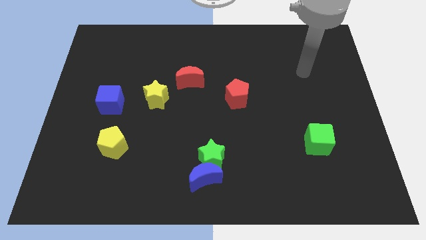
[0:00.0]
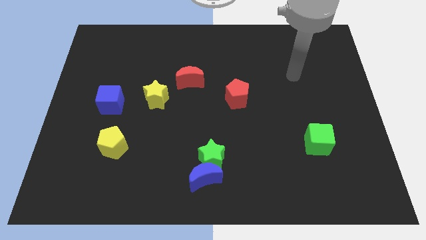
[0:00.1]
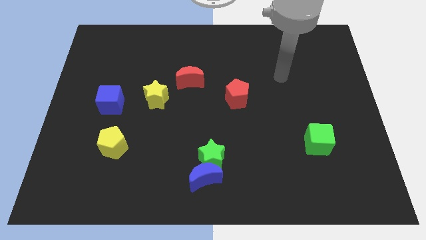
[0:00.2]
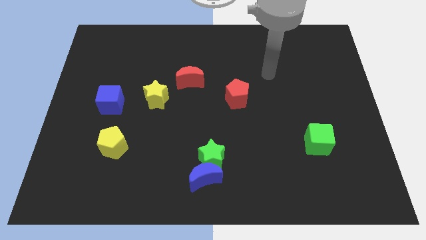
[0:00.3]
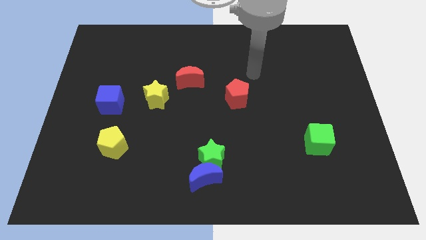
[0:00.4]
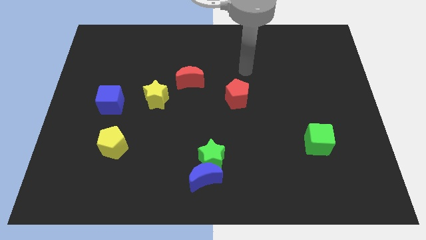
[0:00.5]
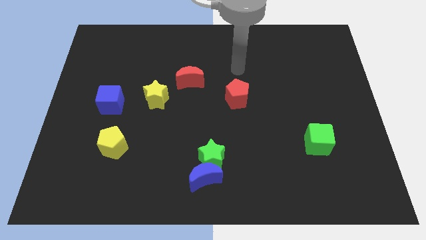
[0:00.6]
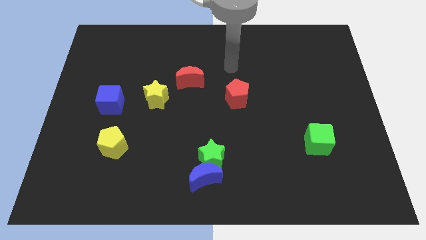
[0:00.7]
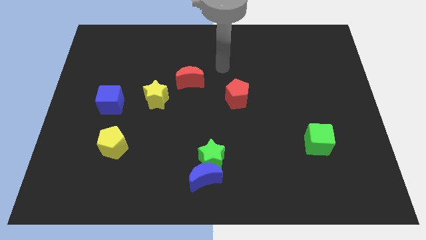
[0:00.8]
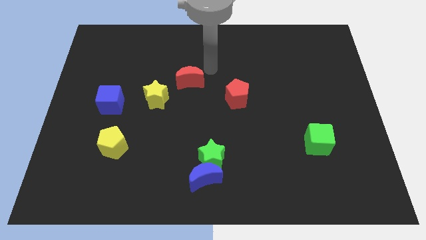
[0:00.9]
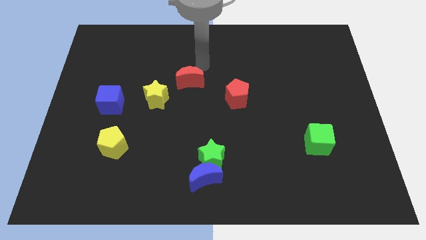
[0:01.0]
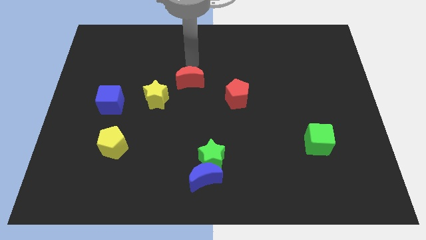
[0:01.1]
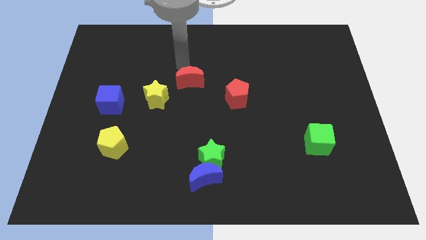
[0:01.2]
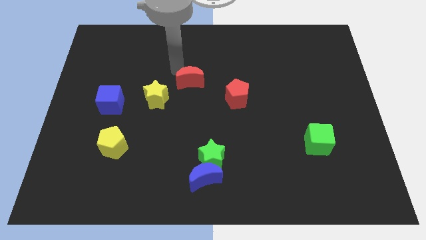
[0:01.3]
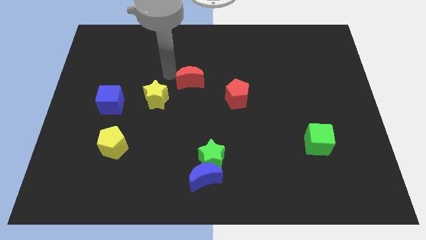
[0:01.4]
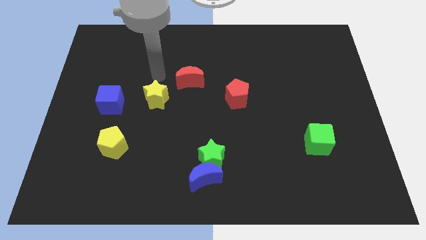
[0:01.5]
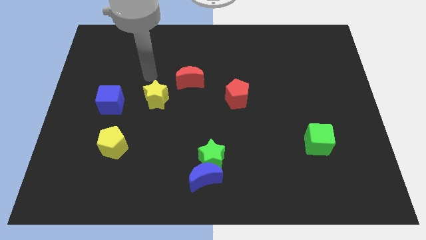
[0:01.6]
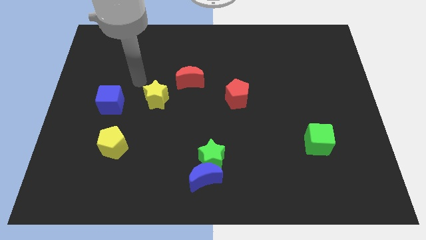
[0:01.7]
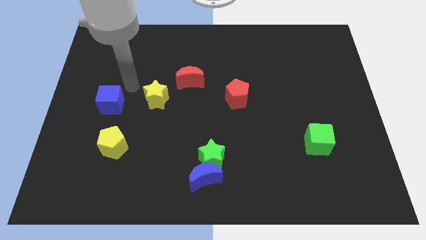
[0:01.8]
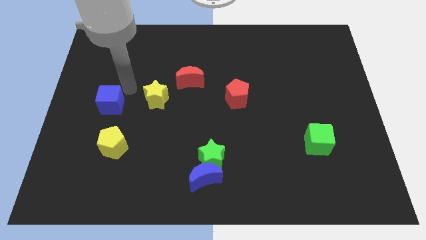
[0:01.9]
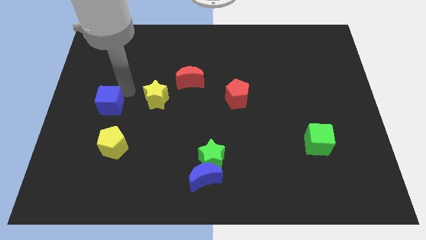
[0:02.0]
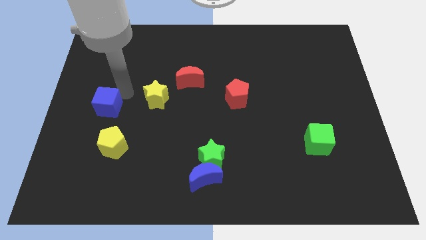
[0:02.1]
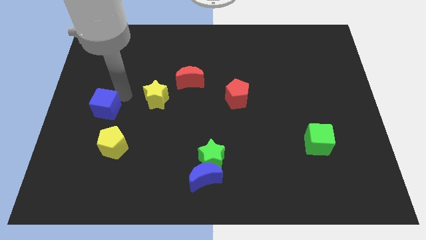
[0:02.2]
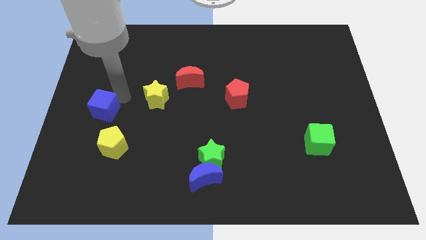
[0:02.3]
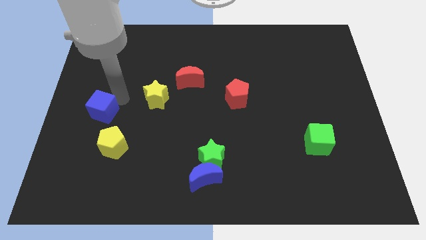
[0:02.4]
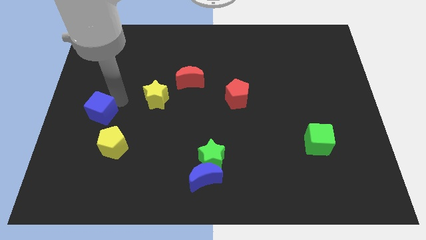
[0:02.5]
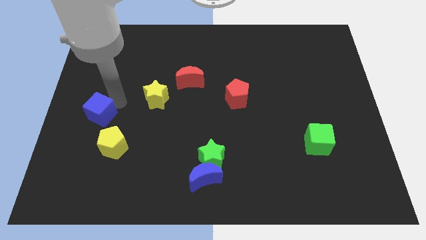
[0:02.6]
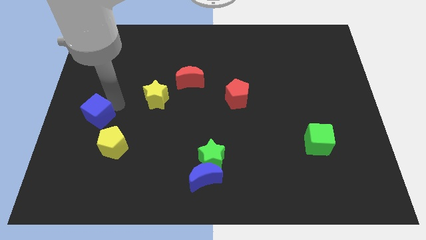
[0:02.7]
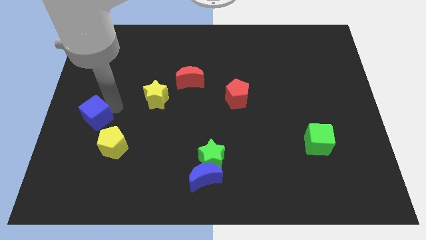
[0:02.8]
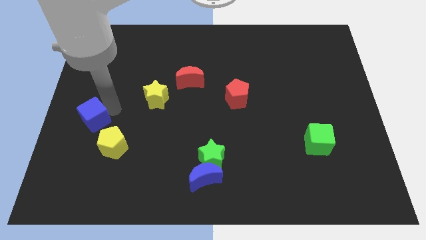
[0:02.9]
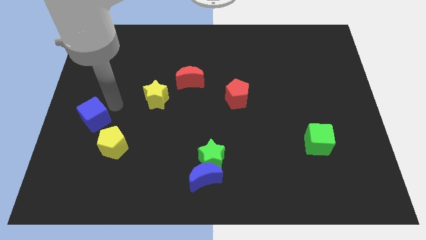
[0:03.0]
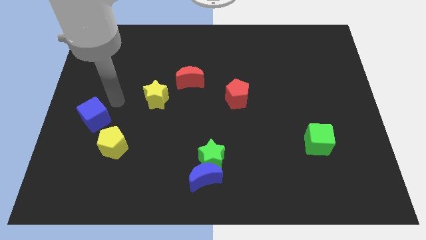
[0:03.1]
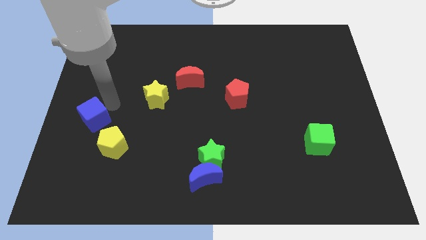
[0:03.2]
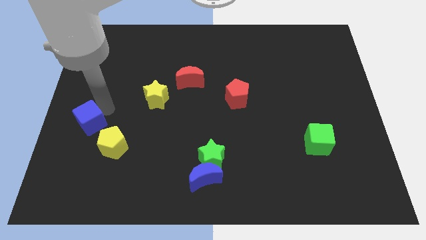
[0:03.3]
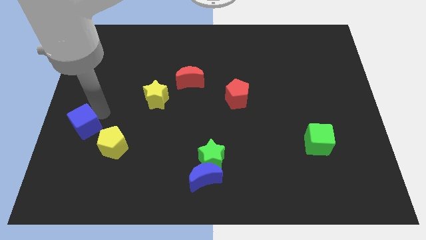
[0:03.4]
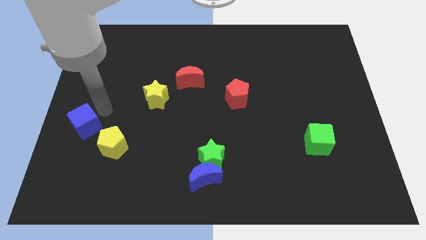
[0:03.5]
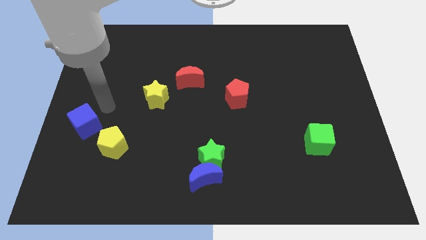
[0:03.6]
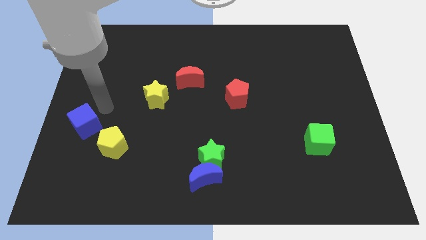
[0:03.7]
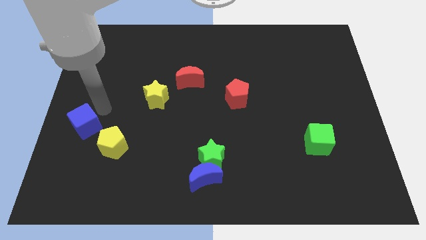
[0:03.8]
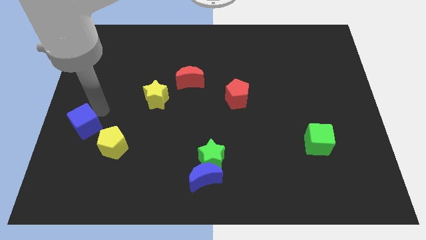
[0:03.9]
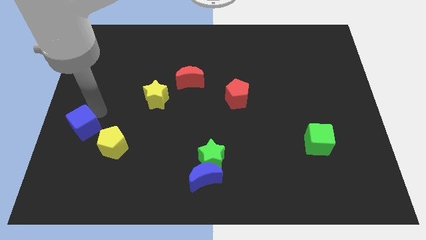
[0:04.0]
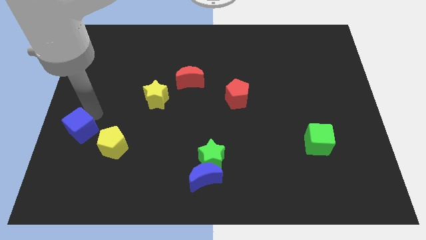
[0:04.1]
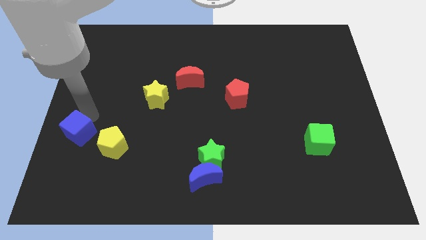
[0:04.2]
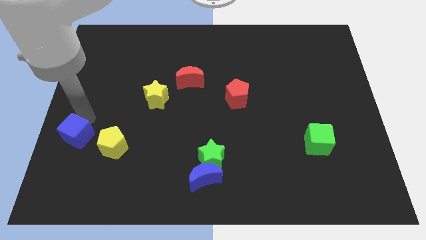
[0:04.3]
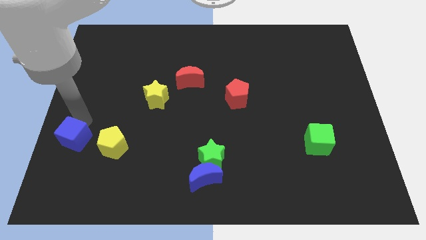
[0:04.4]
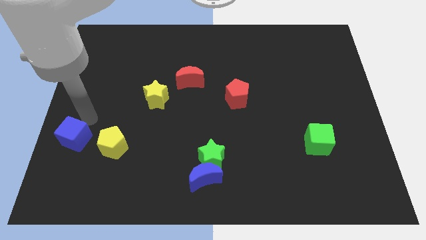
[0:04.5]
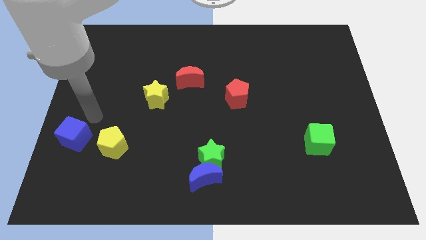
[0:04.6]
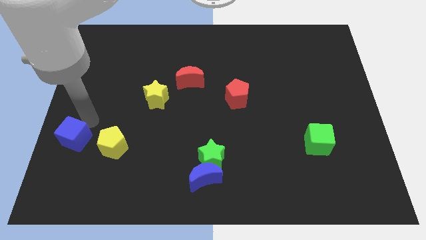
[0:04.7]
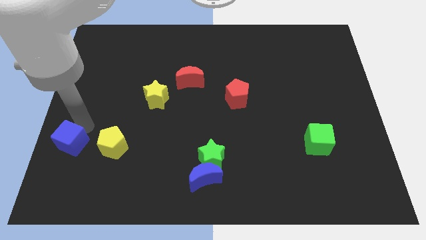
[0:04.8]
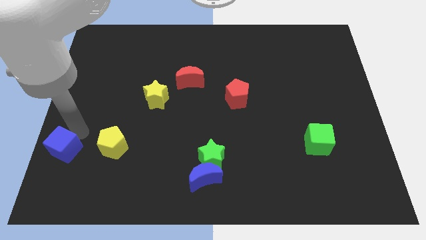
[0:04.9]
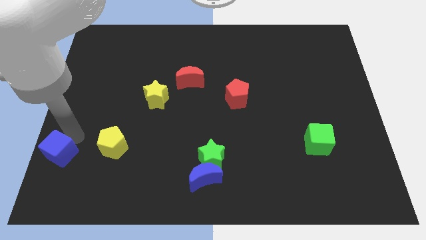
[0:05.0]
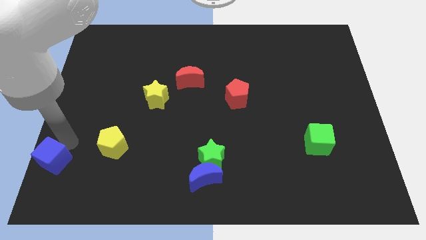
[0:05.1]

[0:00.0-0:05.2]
slide the blue cube to the bottom left of the board

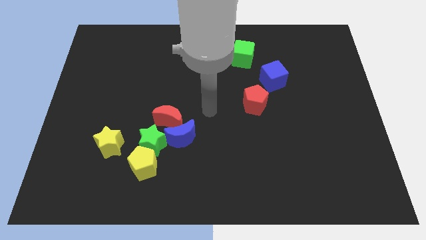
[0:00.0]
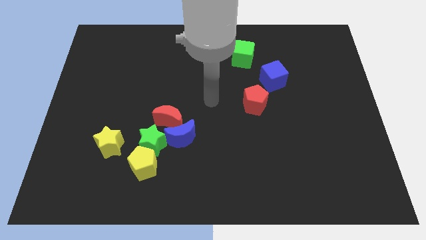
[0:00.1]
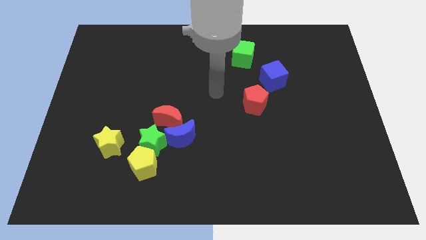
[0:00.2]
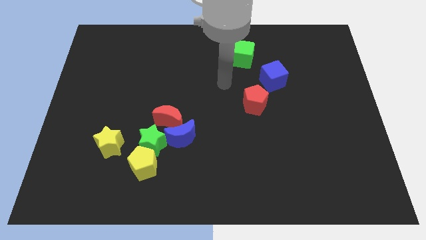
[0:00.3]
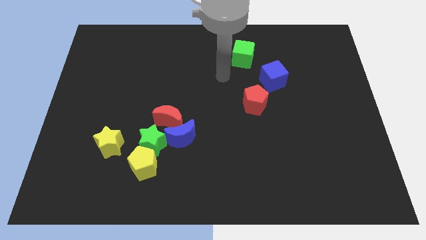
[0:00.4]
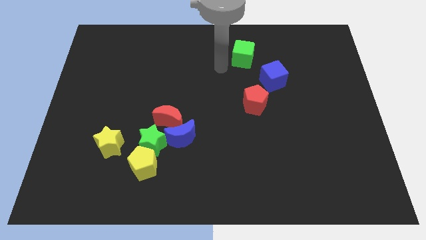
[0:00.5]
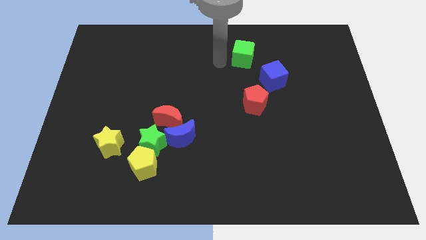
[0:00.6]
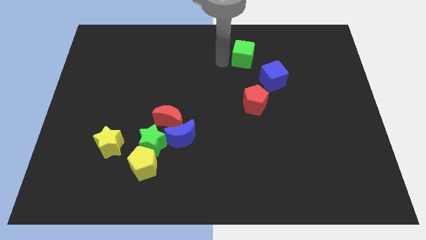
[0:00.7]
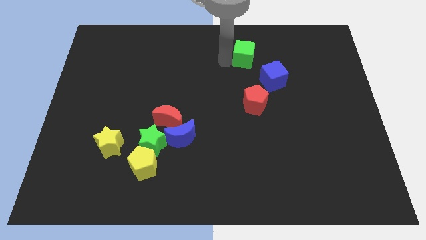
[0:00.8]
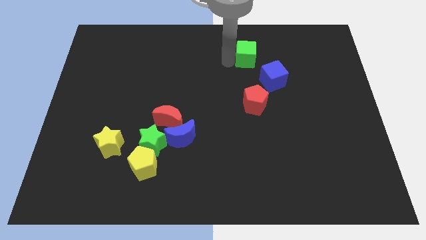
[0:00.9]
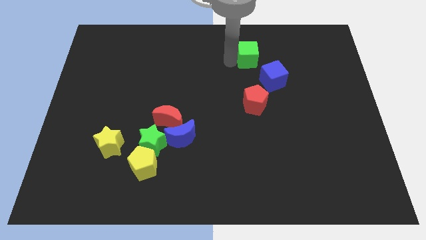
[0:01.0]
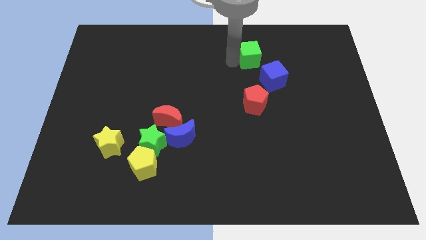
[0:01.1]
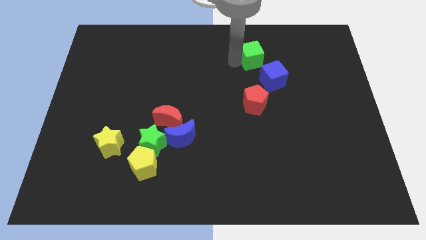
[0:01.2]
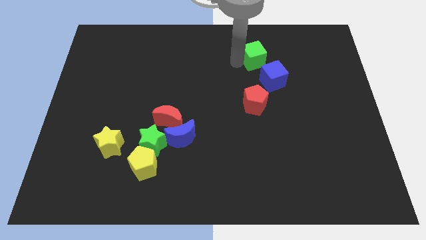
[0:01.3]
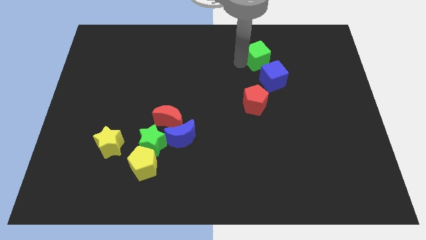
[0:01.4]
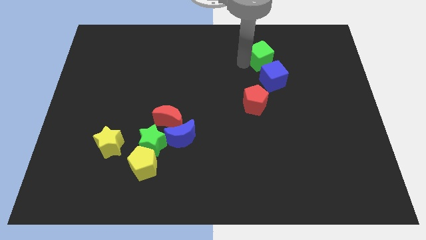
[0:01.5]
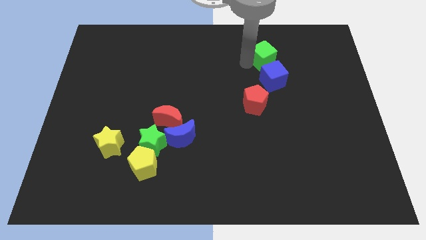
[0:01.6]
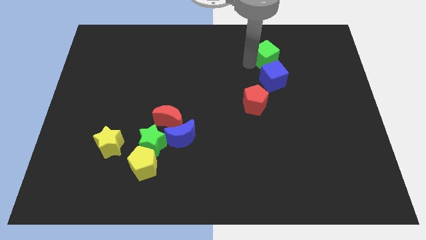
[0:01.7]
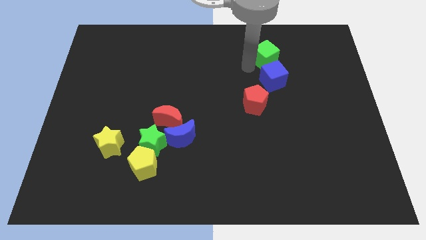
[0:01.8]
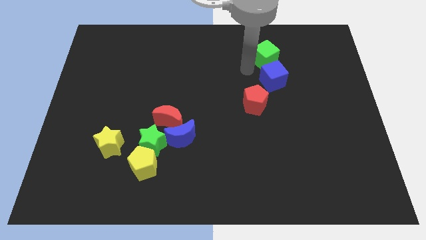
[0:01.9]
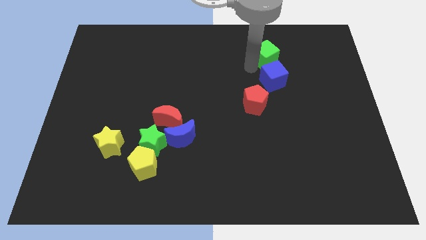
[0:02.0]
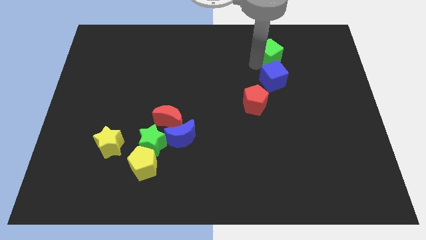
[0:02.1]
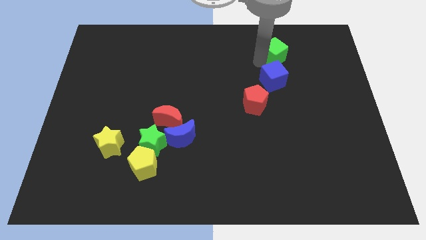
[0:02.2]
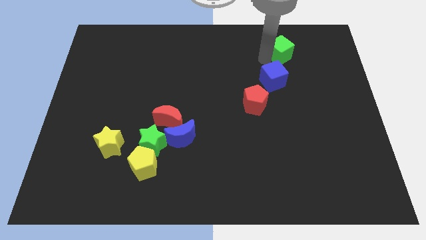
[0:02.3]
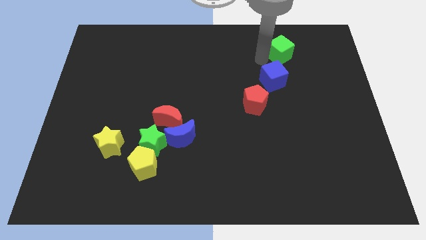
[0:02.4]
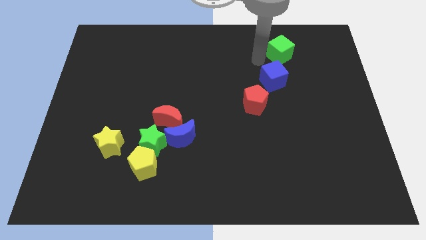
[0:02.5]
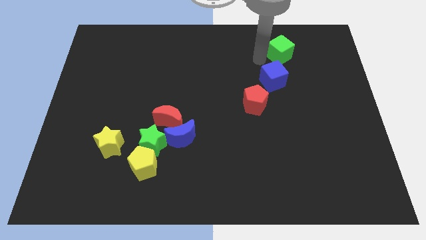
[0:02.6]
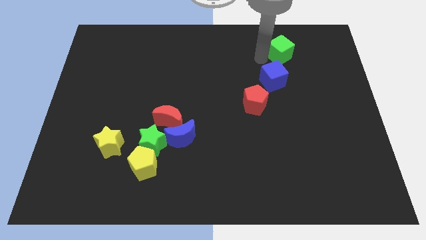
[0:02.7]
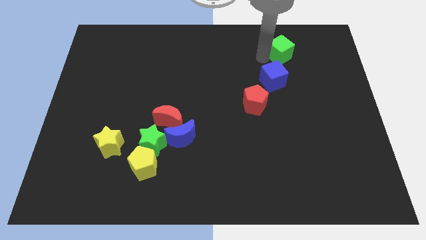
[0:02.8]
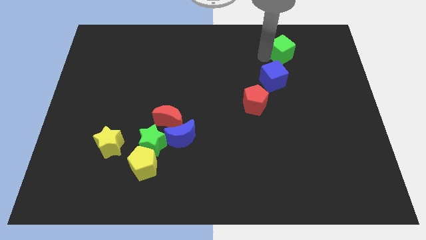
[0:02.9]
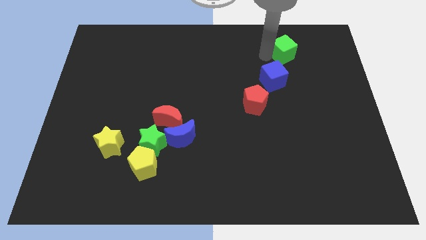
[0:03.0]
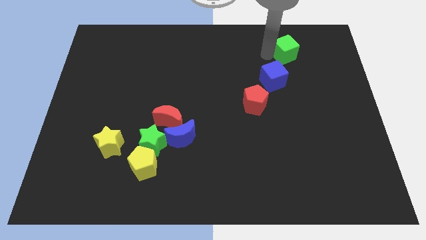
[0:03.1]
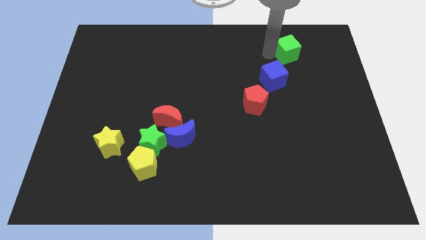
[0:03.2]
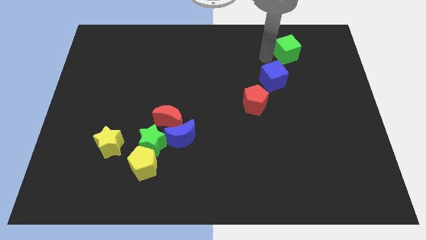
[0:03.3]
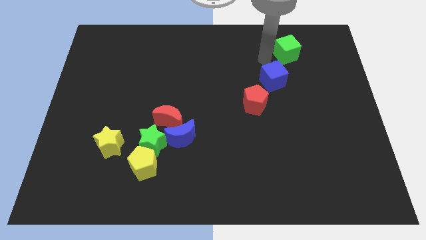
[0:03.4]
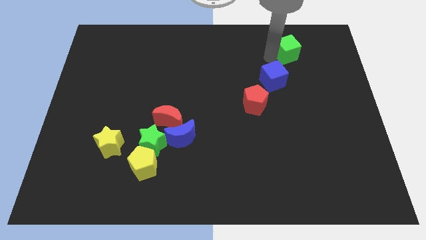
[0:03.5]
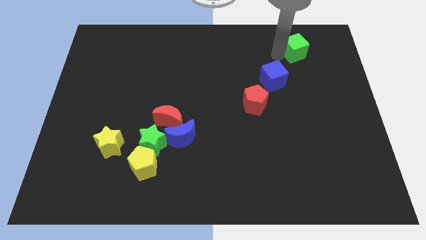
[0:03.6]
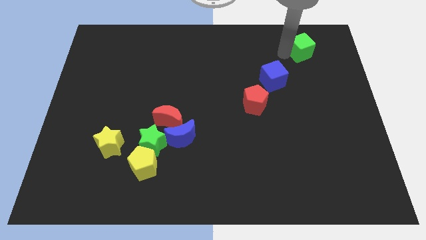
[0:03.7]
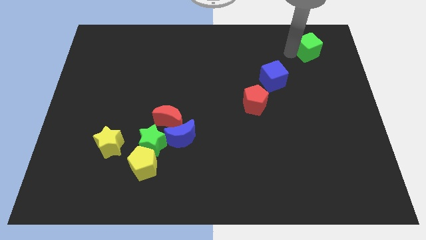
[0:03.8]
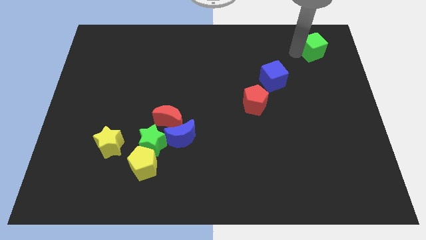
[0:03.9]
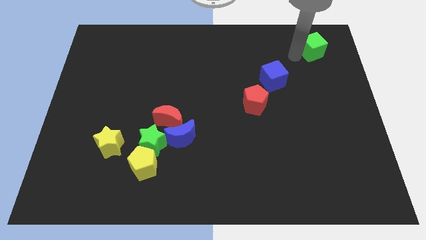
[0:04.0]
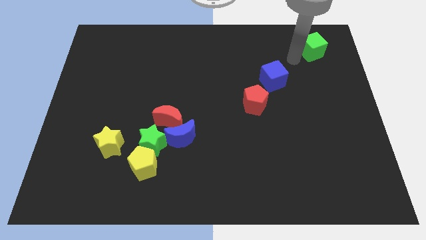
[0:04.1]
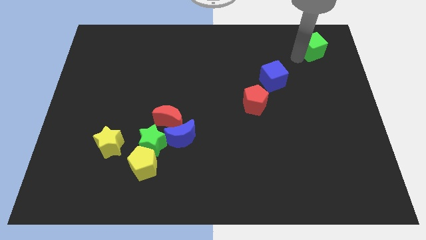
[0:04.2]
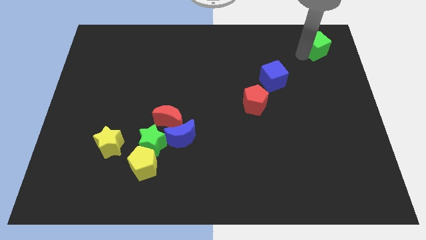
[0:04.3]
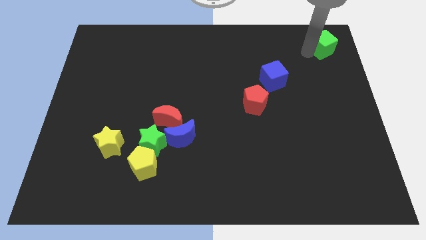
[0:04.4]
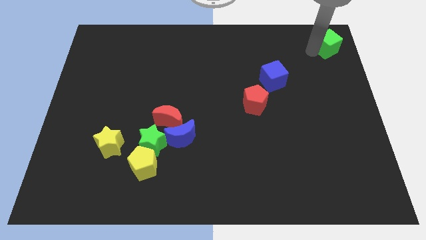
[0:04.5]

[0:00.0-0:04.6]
push the green cube to the upper right corner
